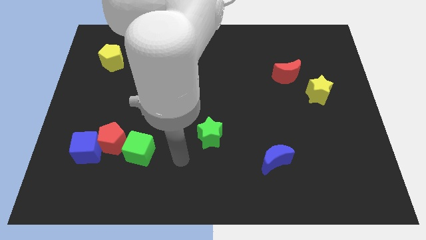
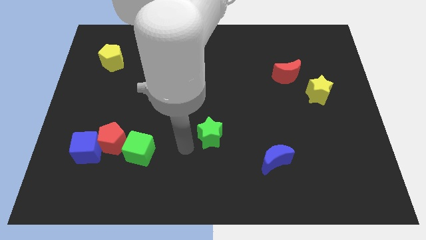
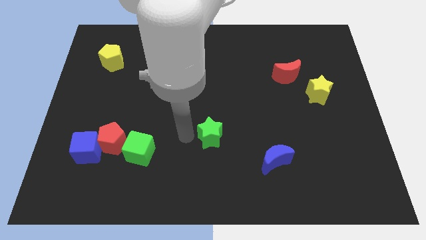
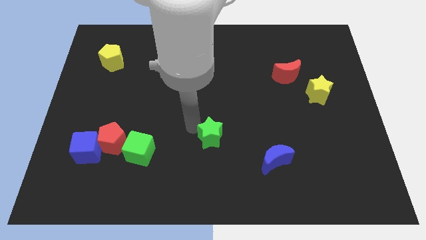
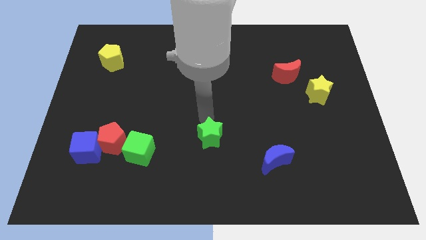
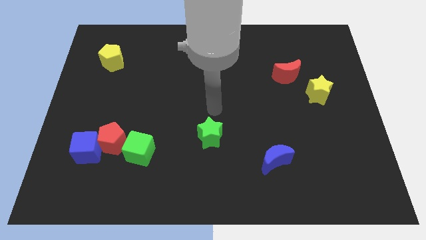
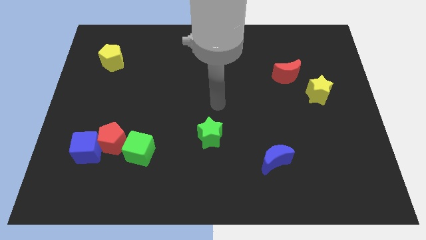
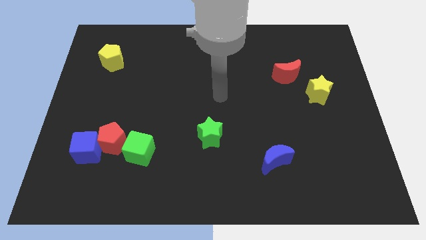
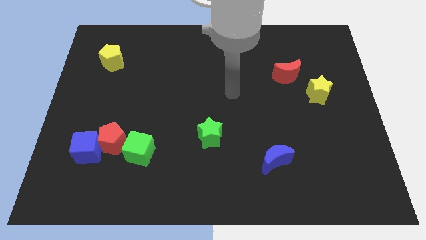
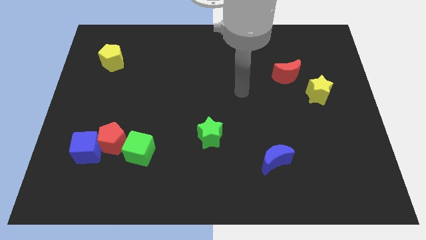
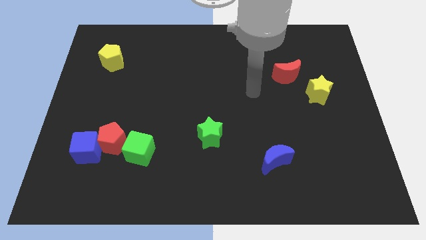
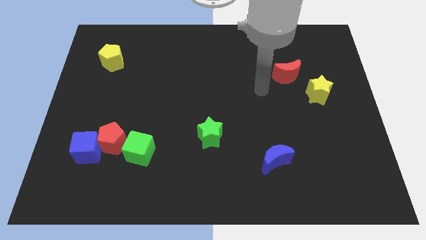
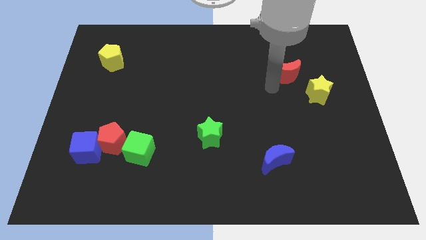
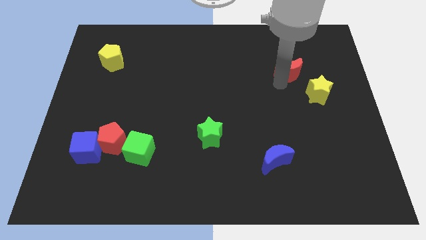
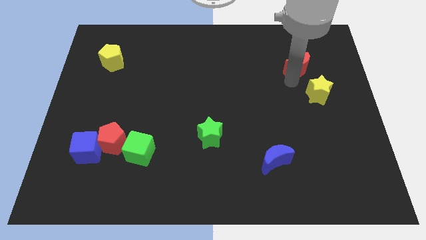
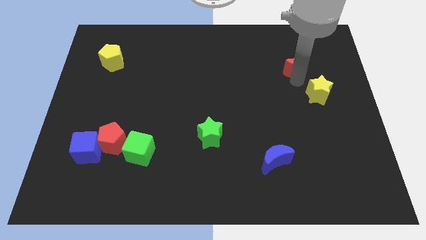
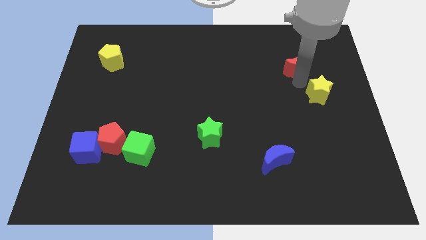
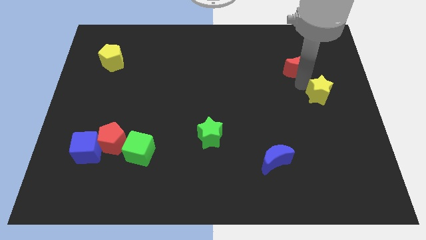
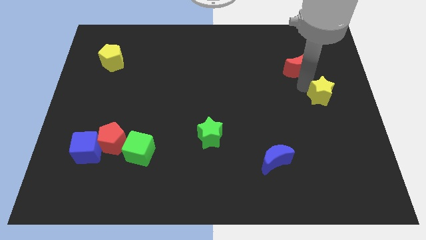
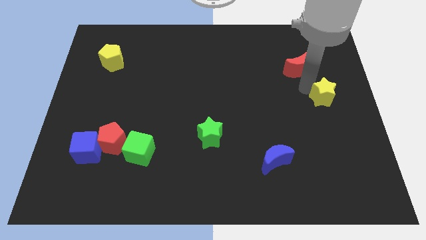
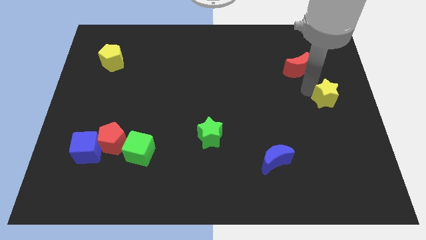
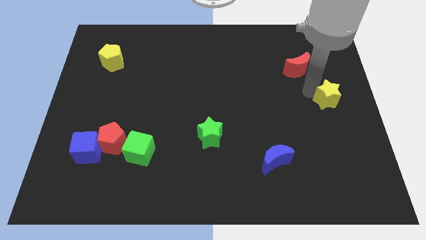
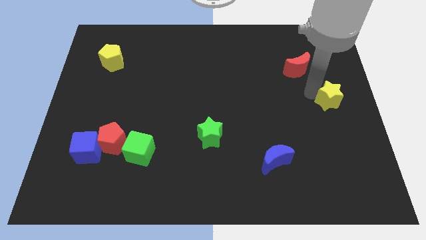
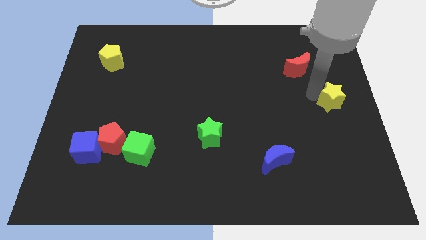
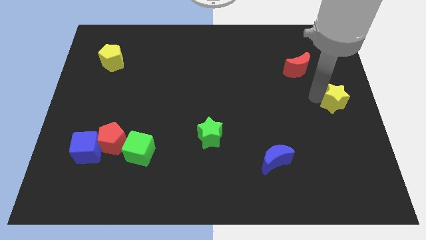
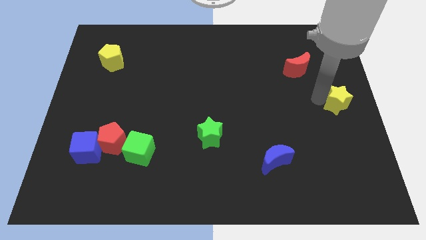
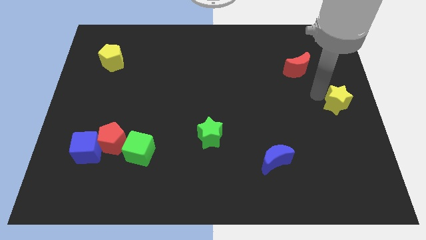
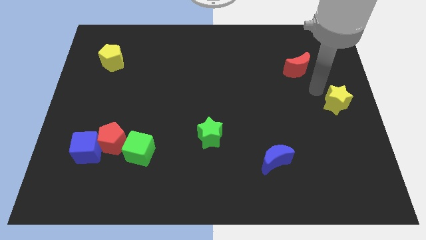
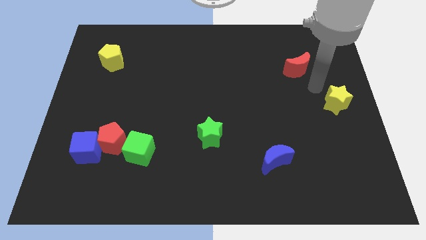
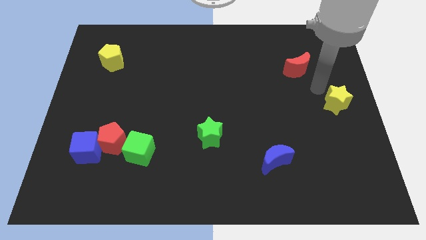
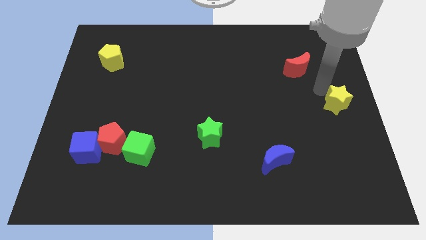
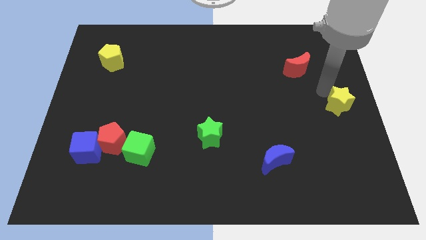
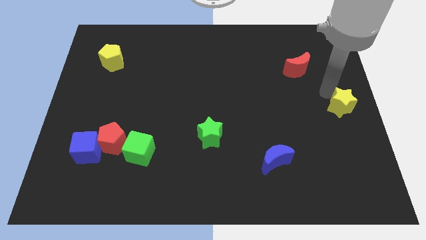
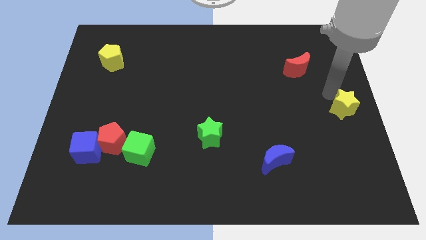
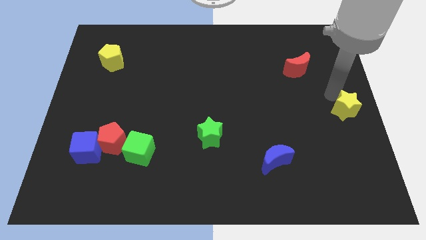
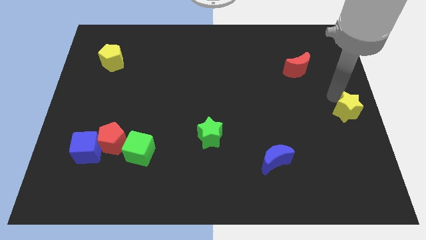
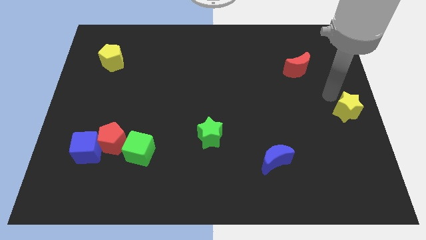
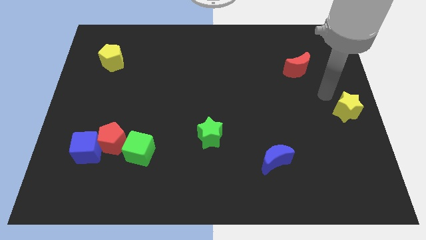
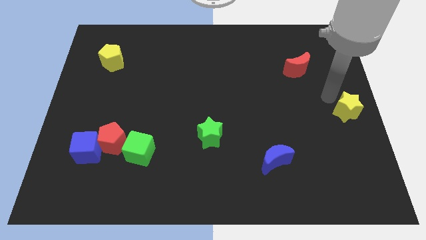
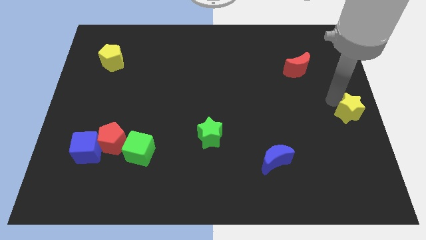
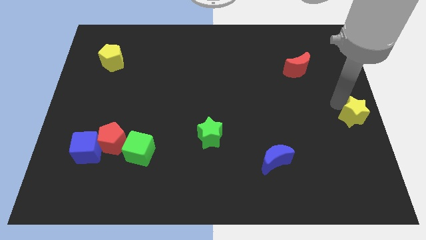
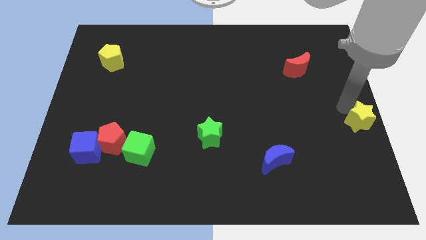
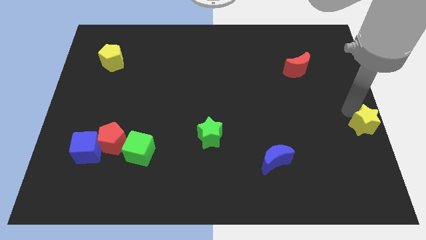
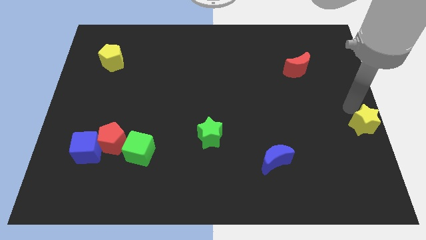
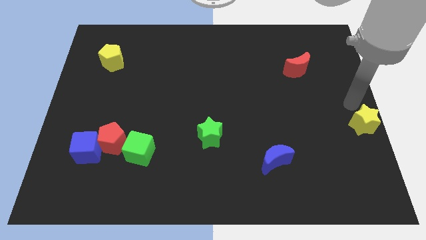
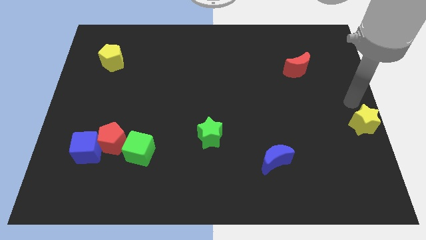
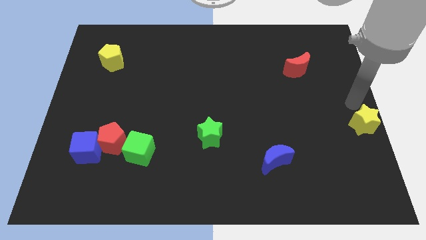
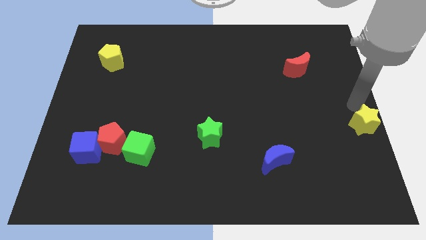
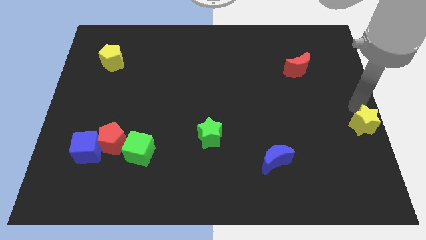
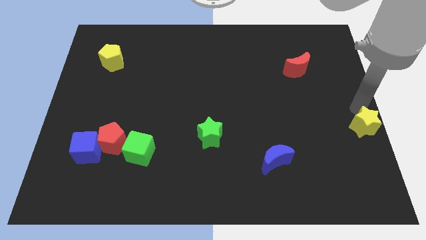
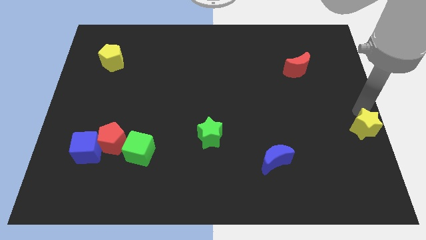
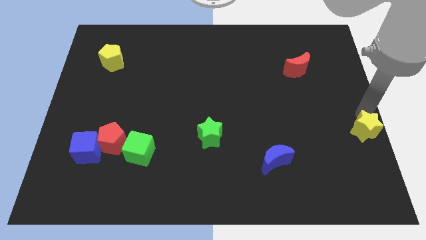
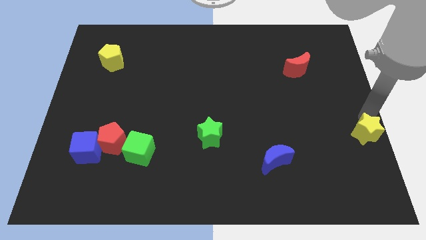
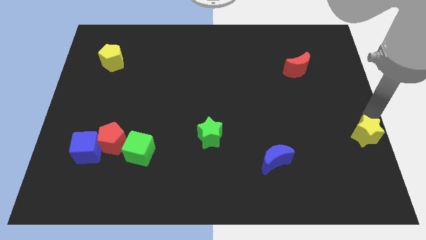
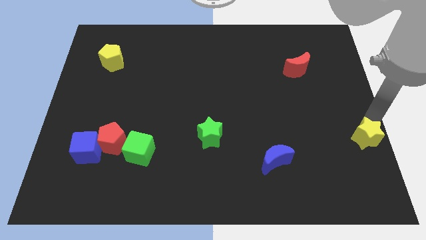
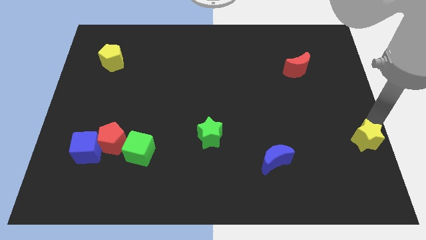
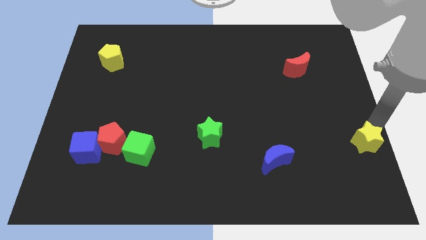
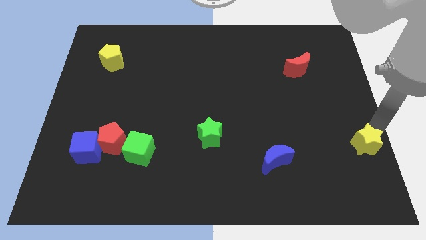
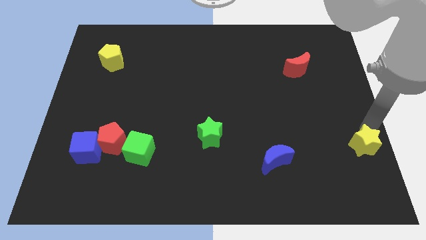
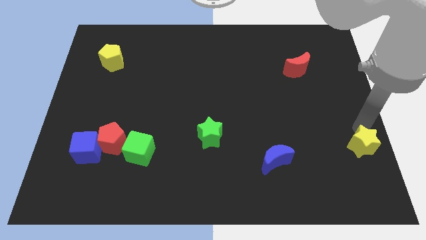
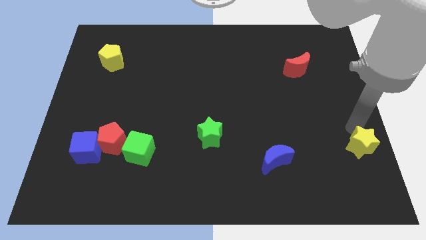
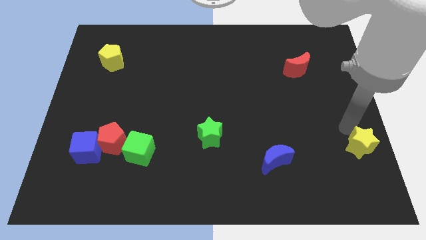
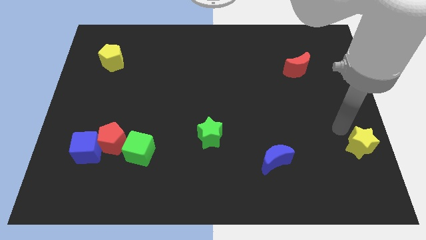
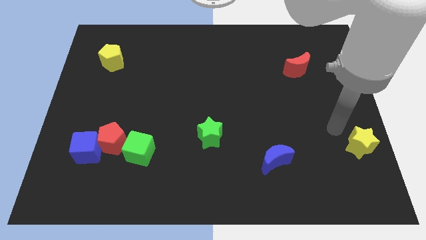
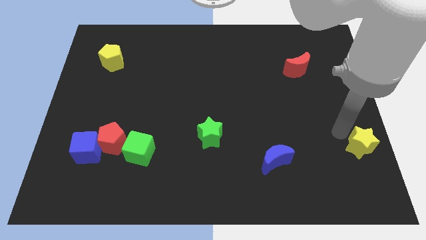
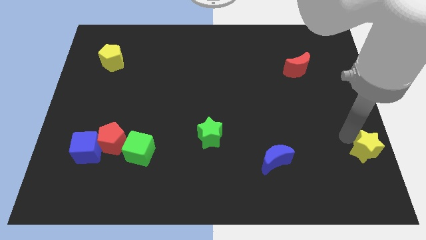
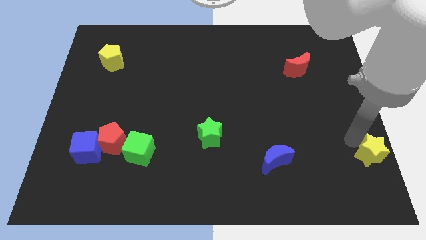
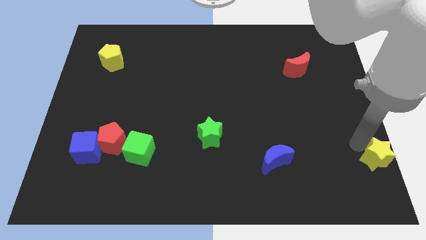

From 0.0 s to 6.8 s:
push the yellow star to the lower right corner
